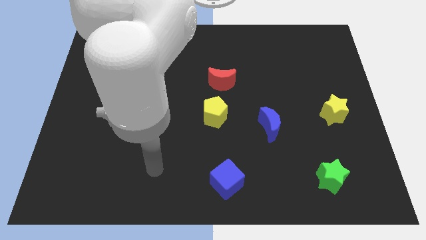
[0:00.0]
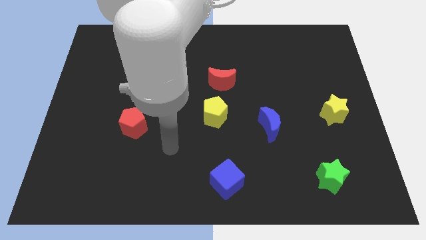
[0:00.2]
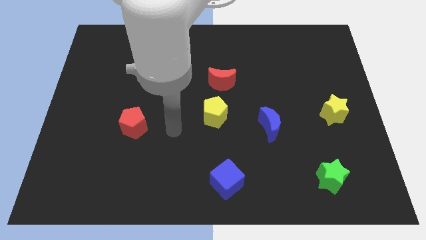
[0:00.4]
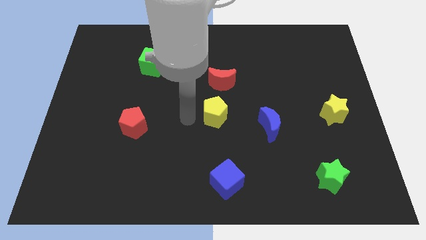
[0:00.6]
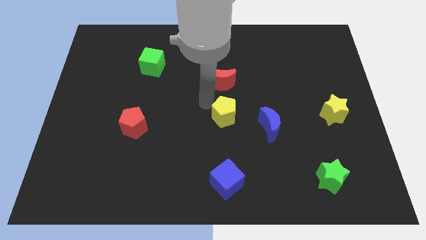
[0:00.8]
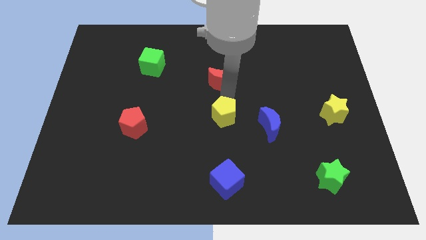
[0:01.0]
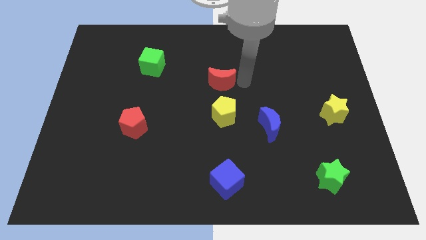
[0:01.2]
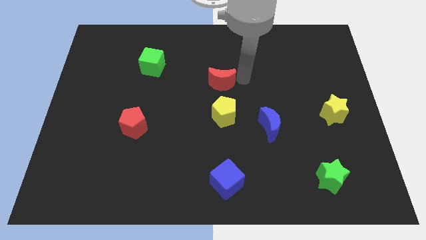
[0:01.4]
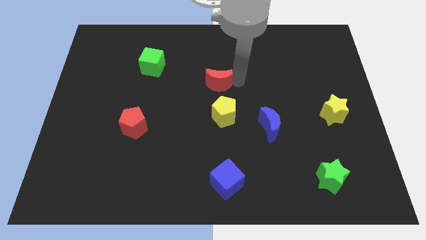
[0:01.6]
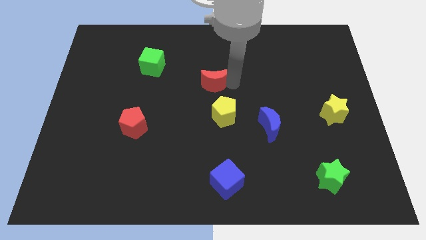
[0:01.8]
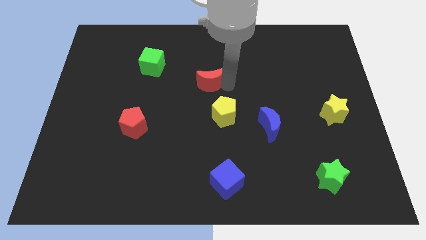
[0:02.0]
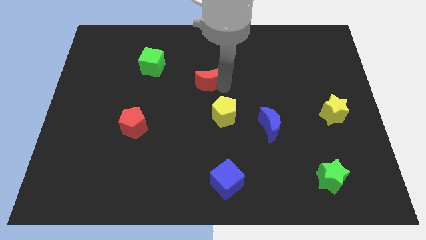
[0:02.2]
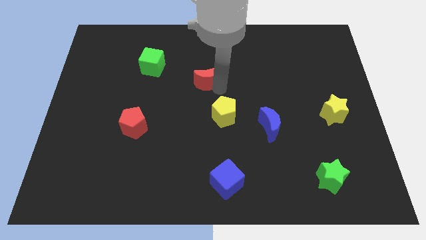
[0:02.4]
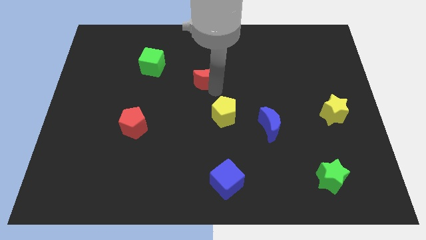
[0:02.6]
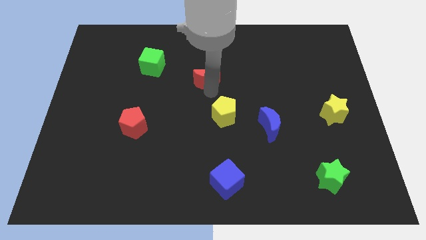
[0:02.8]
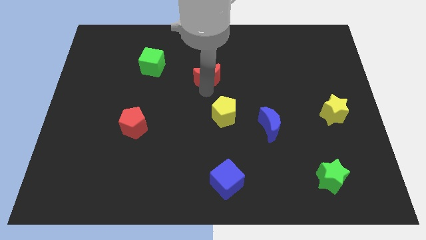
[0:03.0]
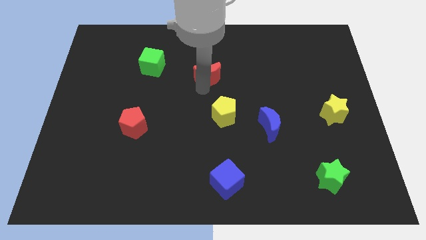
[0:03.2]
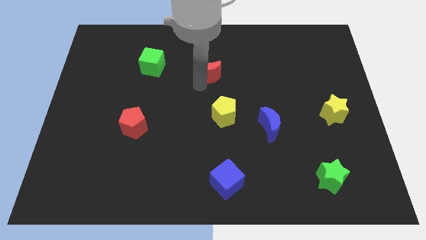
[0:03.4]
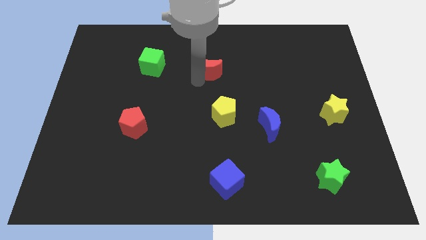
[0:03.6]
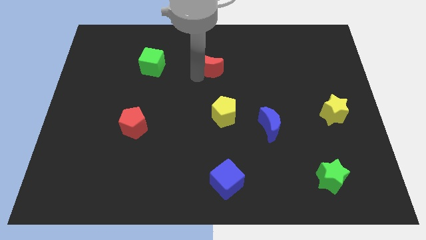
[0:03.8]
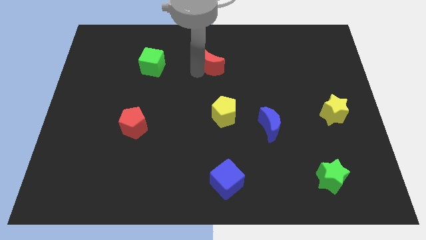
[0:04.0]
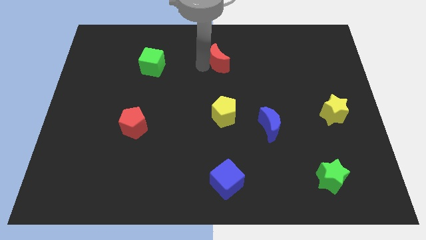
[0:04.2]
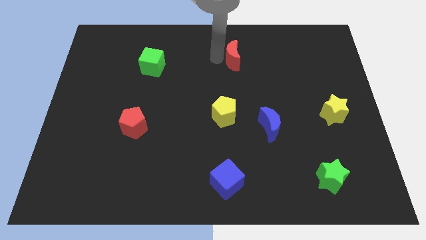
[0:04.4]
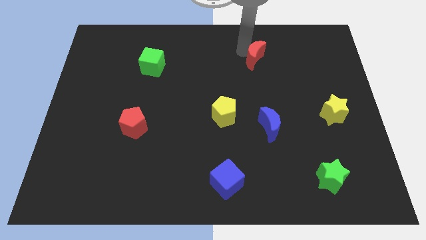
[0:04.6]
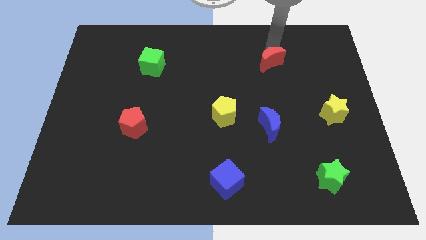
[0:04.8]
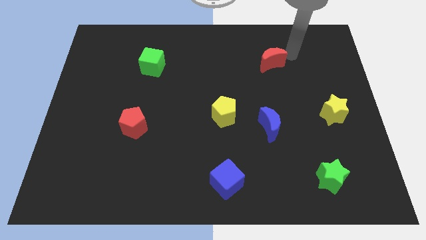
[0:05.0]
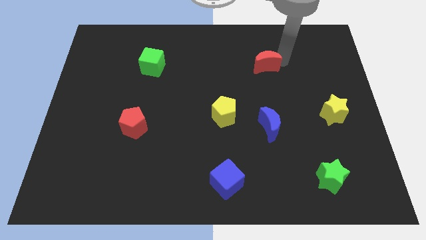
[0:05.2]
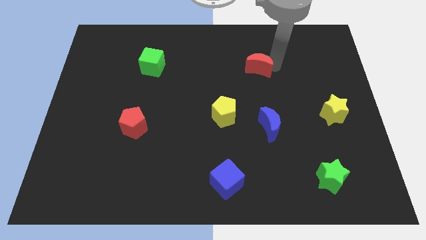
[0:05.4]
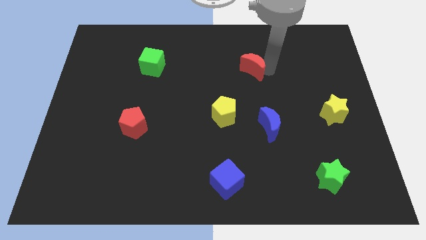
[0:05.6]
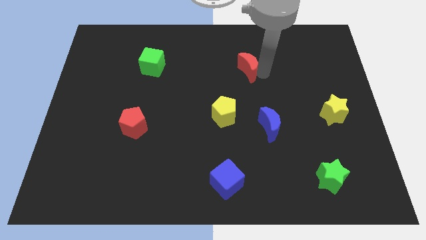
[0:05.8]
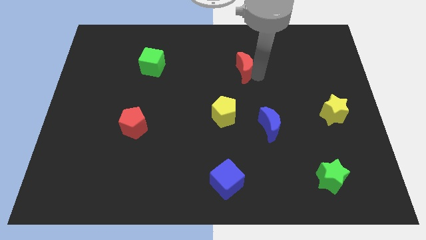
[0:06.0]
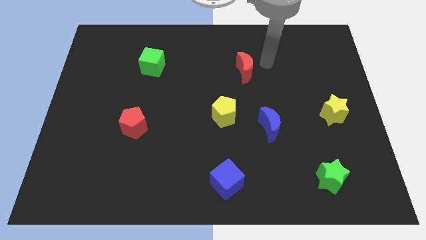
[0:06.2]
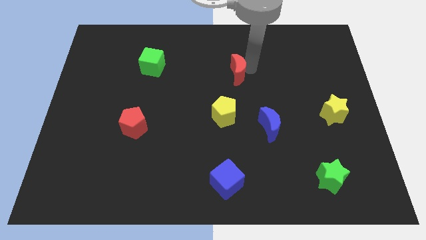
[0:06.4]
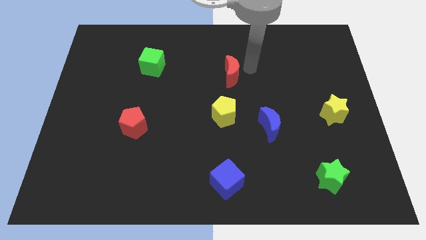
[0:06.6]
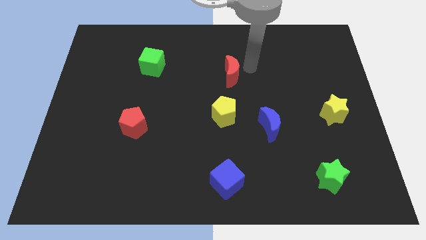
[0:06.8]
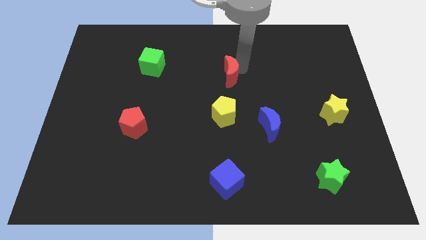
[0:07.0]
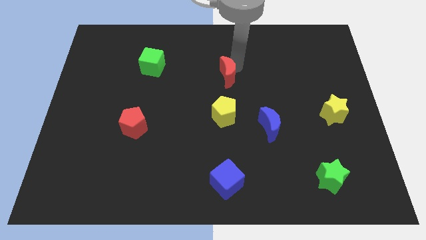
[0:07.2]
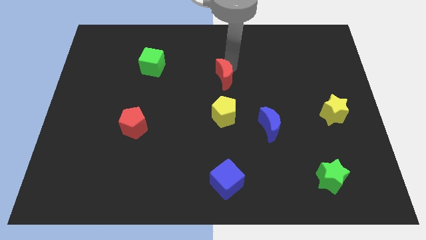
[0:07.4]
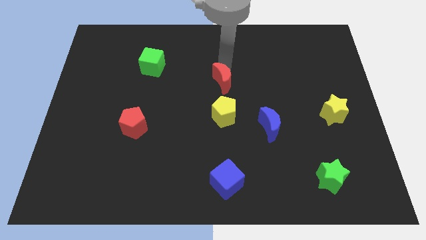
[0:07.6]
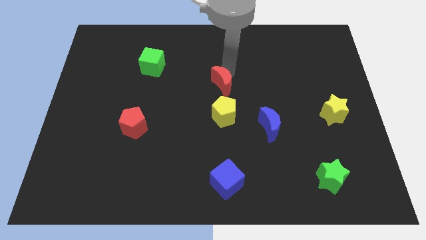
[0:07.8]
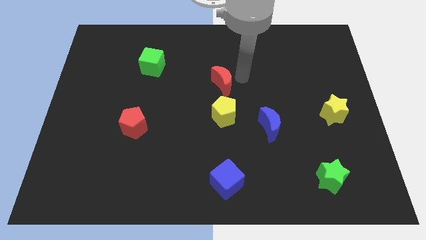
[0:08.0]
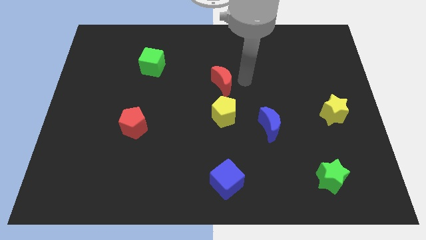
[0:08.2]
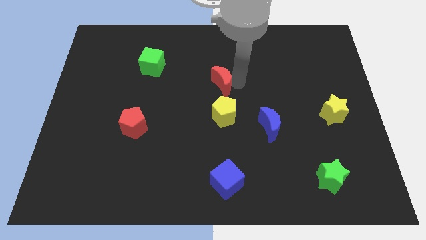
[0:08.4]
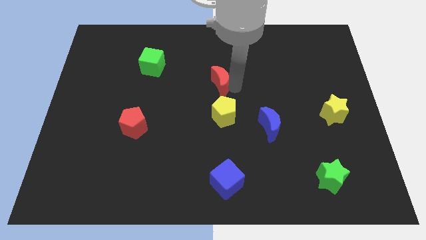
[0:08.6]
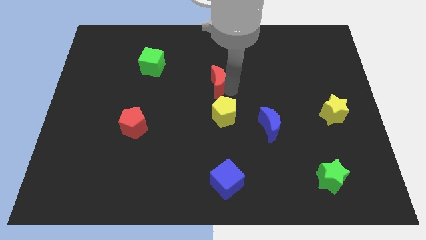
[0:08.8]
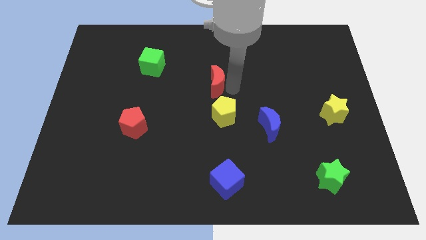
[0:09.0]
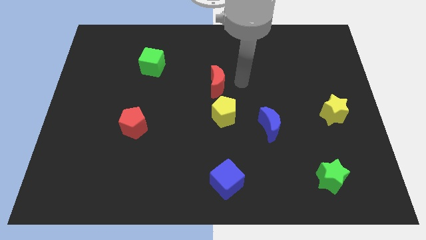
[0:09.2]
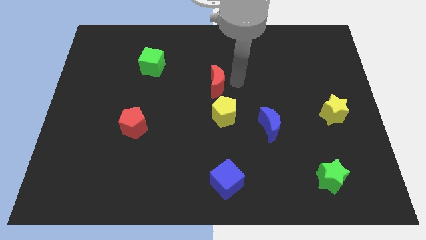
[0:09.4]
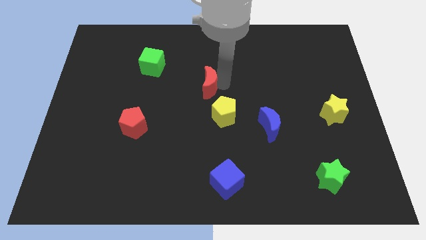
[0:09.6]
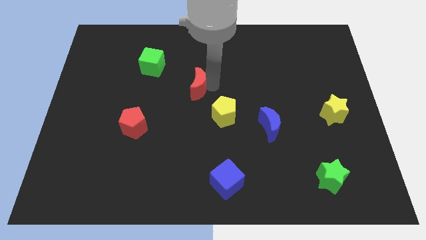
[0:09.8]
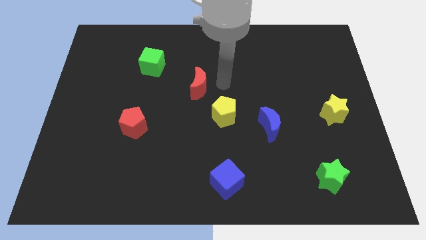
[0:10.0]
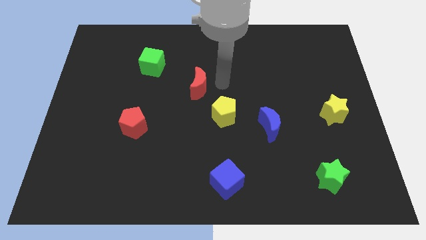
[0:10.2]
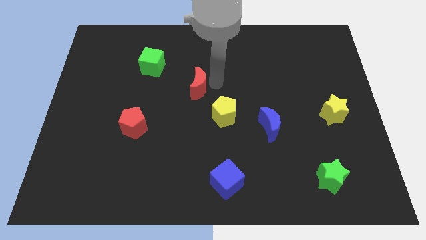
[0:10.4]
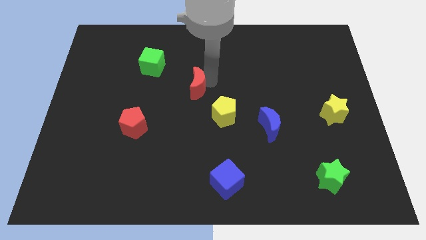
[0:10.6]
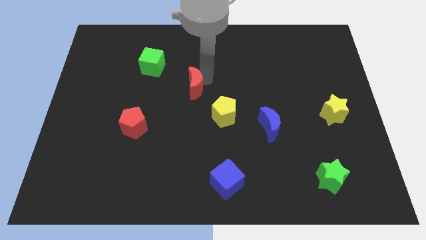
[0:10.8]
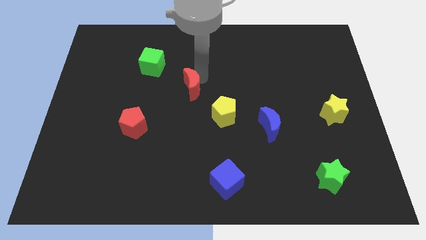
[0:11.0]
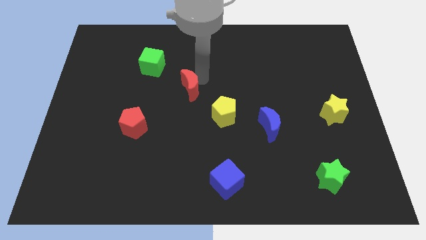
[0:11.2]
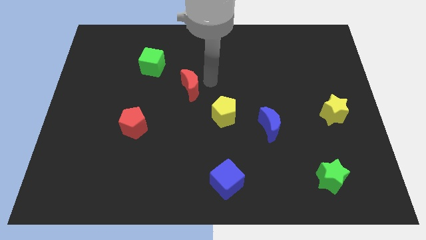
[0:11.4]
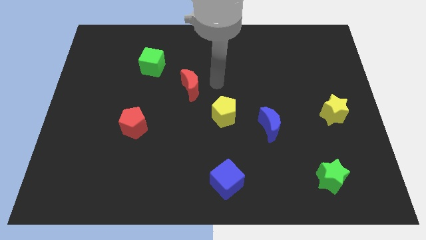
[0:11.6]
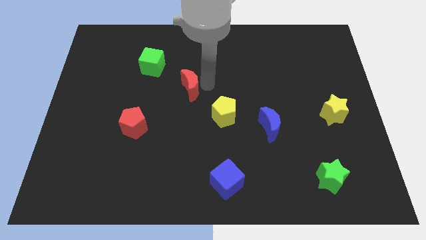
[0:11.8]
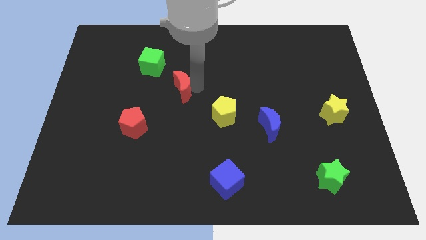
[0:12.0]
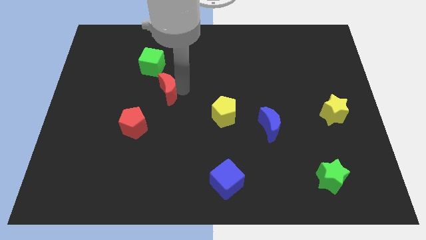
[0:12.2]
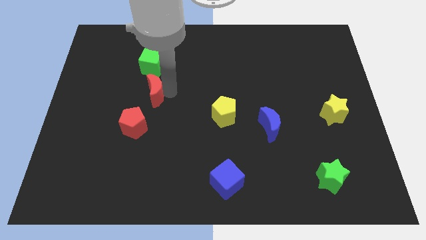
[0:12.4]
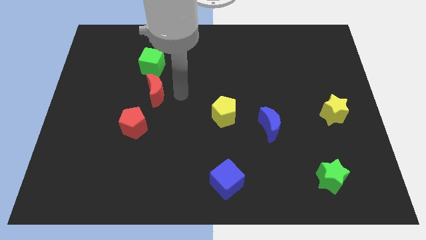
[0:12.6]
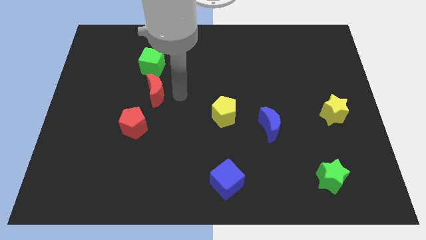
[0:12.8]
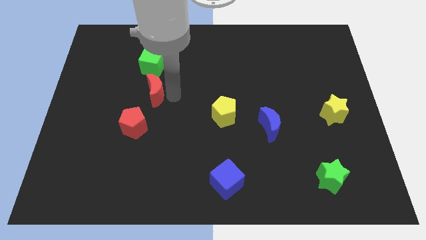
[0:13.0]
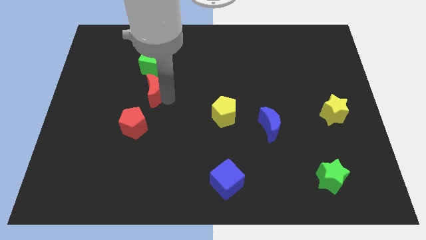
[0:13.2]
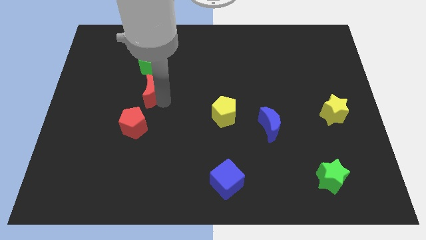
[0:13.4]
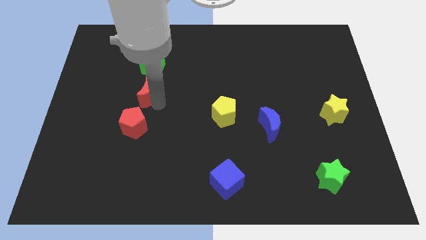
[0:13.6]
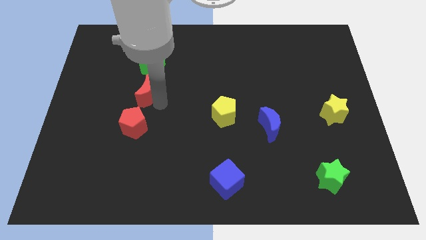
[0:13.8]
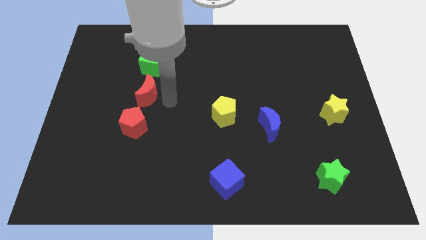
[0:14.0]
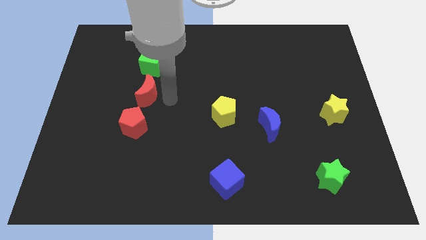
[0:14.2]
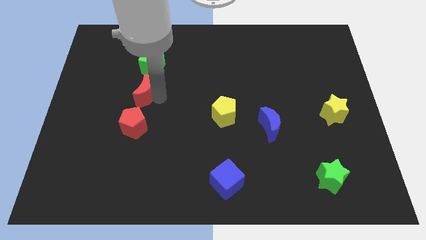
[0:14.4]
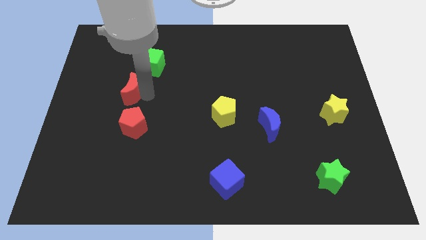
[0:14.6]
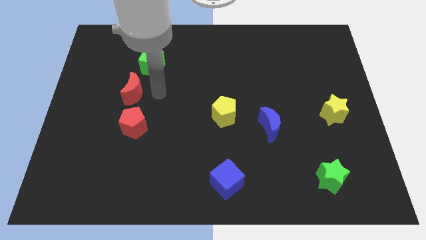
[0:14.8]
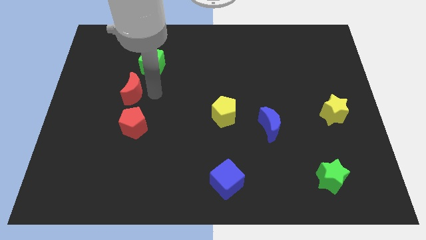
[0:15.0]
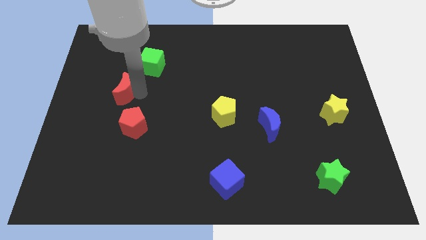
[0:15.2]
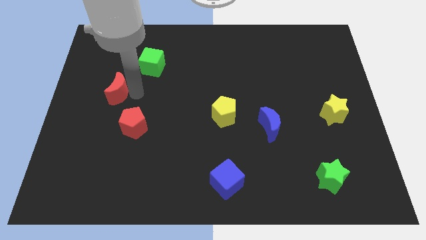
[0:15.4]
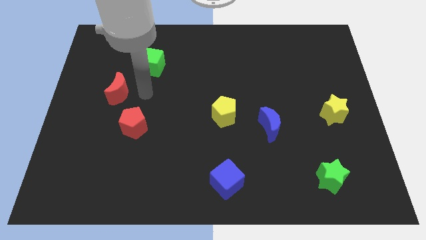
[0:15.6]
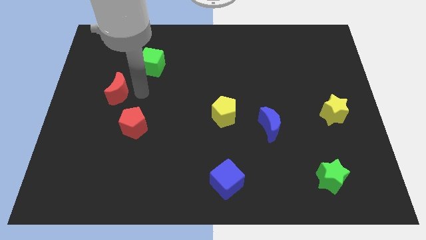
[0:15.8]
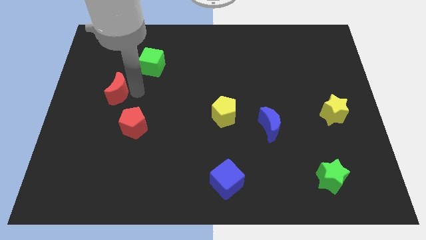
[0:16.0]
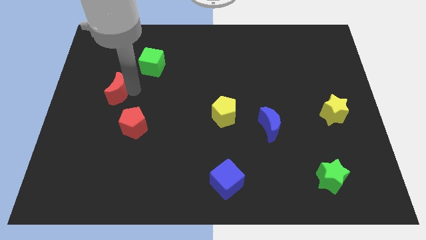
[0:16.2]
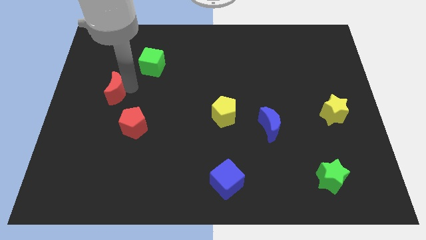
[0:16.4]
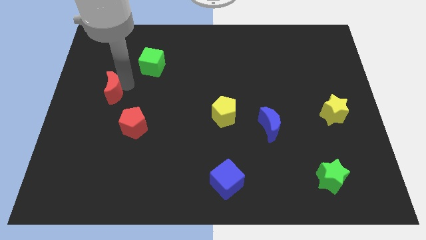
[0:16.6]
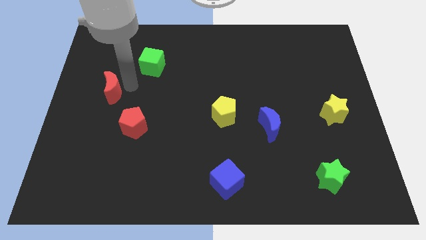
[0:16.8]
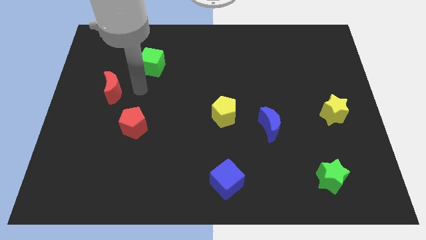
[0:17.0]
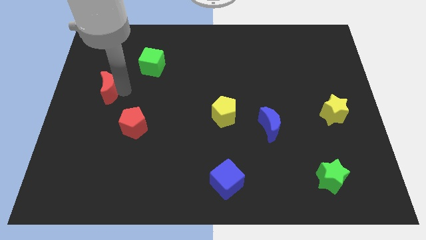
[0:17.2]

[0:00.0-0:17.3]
put the red moon to the left side of the board
